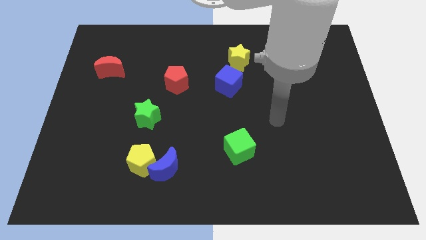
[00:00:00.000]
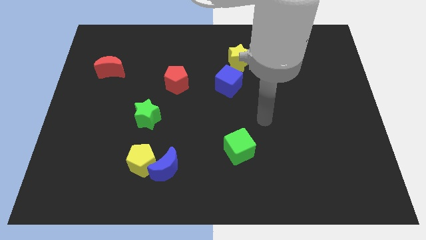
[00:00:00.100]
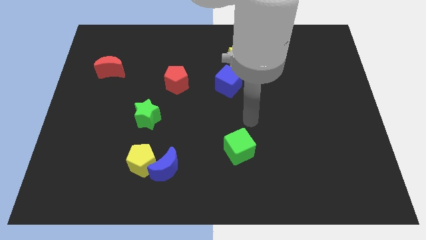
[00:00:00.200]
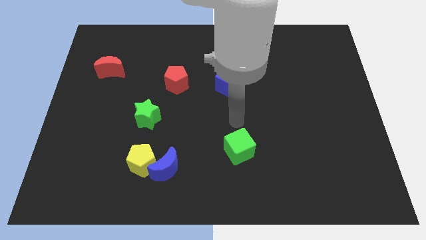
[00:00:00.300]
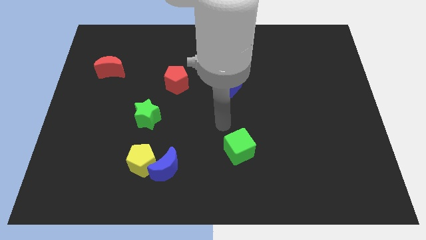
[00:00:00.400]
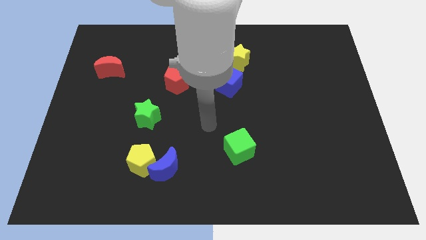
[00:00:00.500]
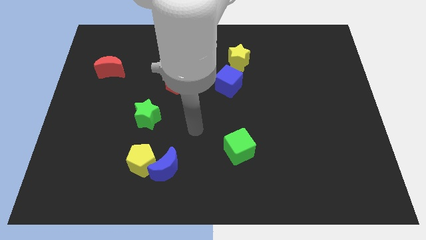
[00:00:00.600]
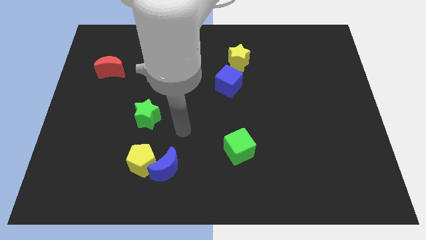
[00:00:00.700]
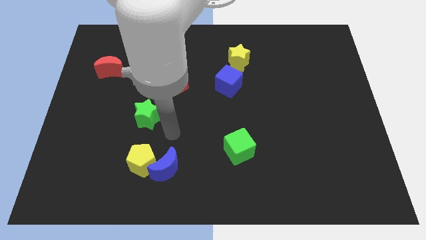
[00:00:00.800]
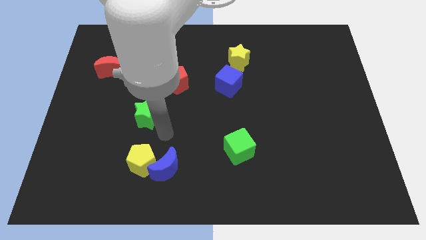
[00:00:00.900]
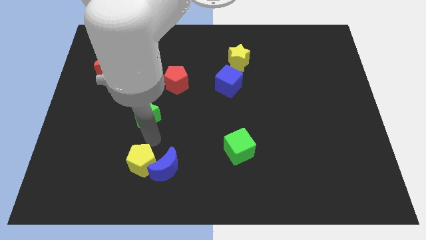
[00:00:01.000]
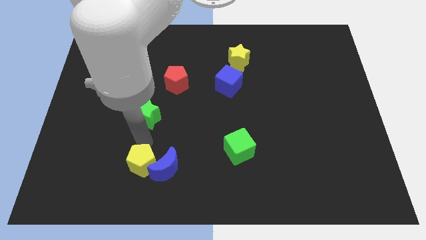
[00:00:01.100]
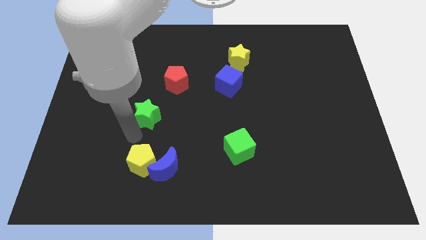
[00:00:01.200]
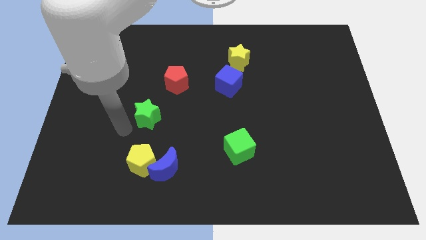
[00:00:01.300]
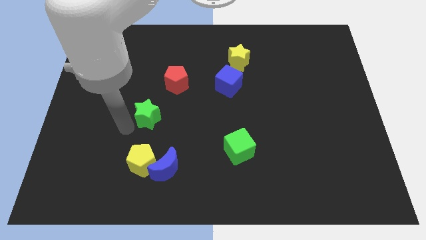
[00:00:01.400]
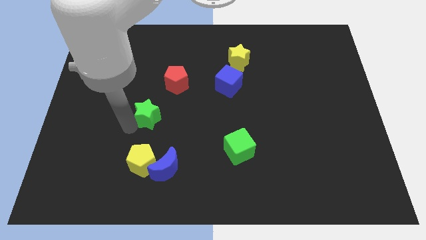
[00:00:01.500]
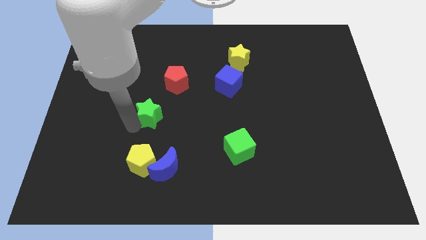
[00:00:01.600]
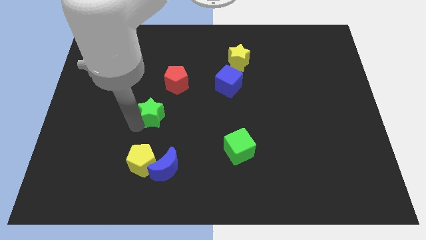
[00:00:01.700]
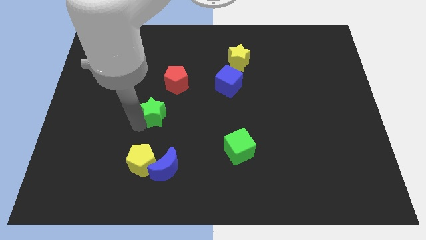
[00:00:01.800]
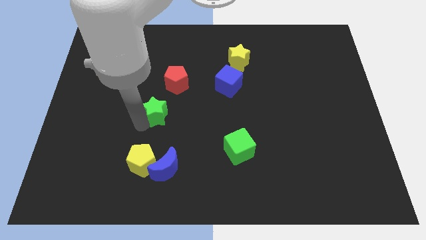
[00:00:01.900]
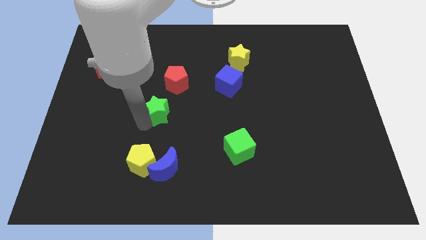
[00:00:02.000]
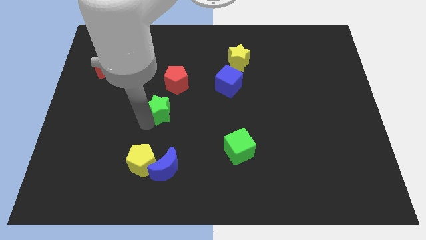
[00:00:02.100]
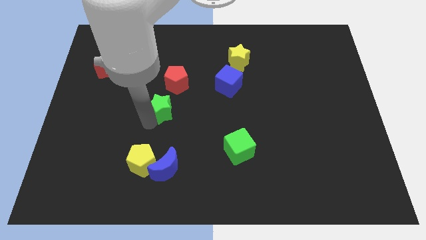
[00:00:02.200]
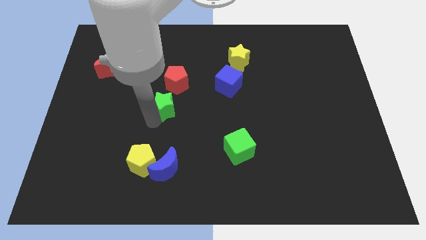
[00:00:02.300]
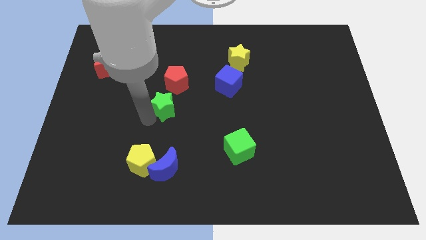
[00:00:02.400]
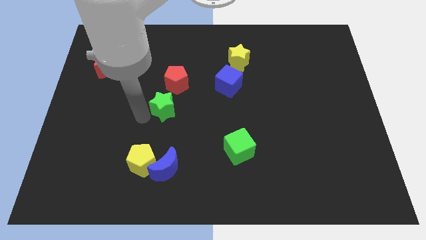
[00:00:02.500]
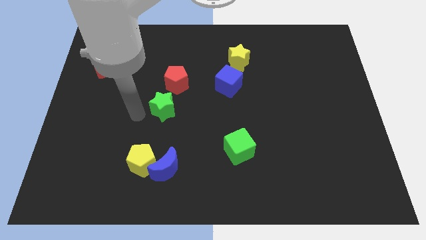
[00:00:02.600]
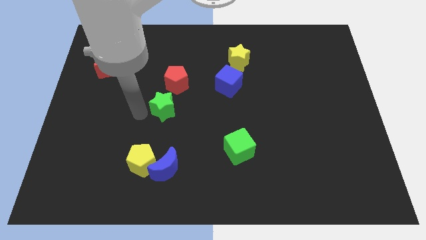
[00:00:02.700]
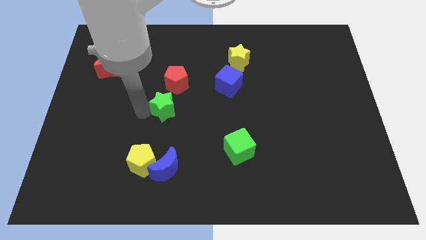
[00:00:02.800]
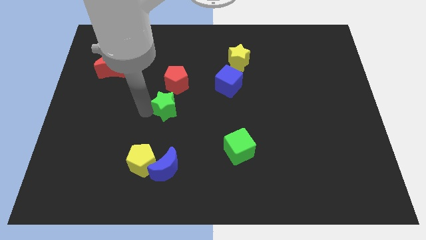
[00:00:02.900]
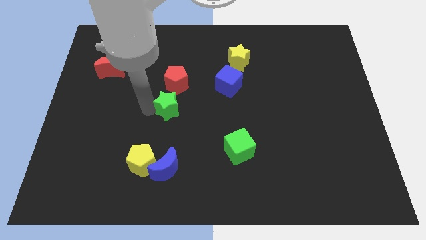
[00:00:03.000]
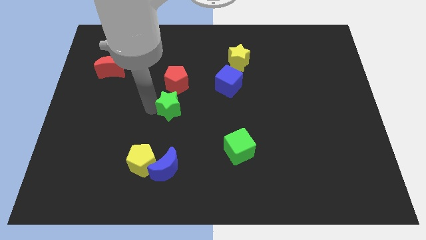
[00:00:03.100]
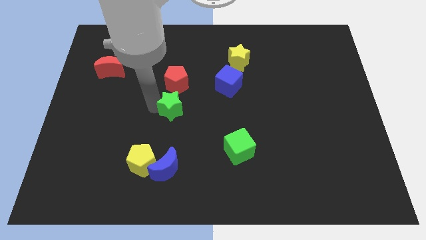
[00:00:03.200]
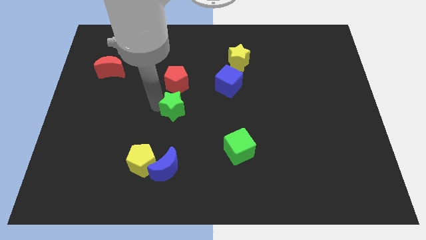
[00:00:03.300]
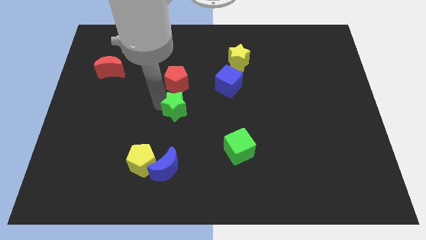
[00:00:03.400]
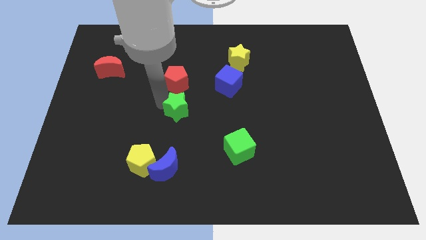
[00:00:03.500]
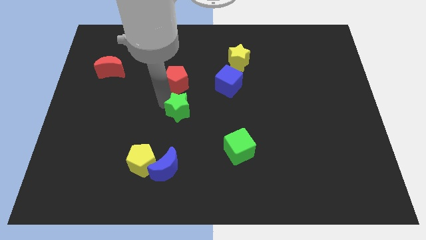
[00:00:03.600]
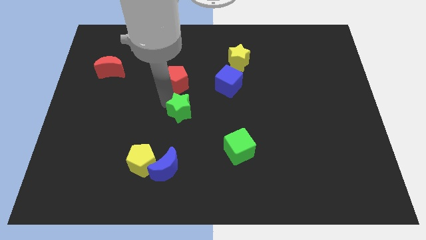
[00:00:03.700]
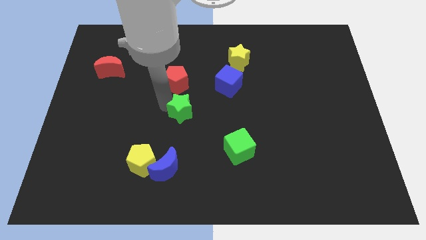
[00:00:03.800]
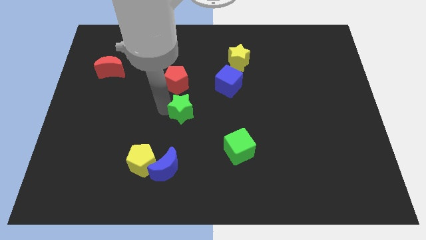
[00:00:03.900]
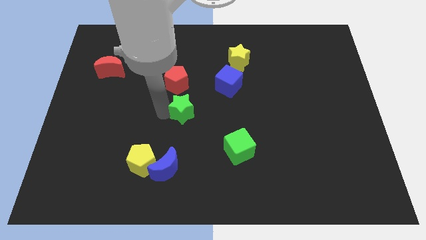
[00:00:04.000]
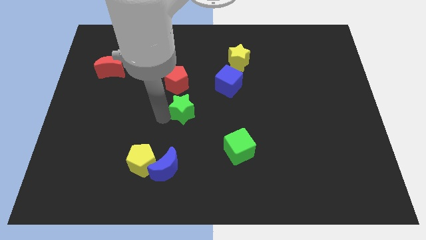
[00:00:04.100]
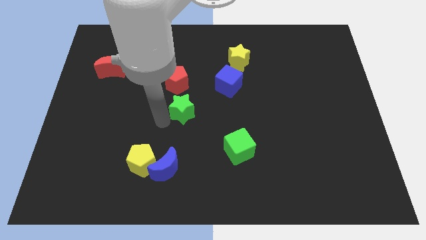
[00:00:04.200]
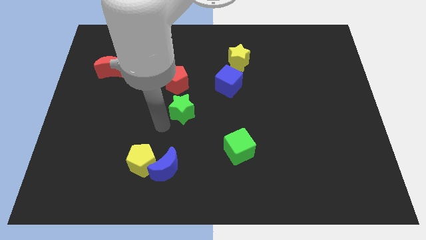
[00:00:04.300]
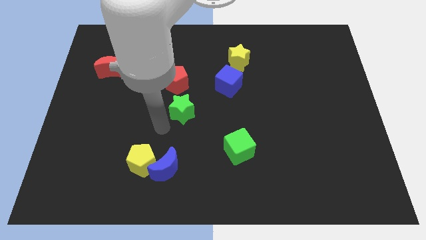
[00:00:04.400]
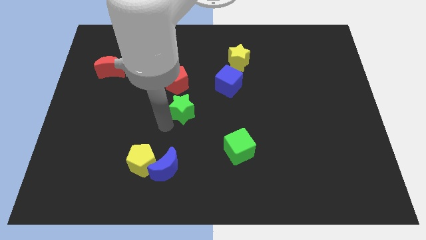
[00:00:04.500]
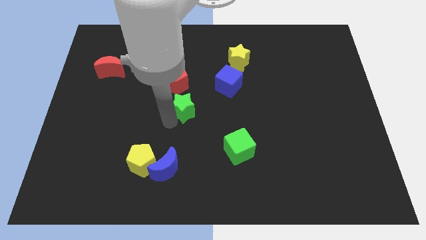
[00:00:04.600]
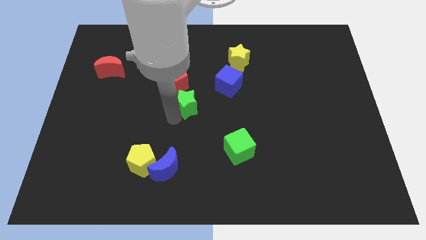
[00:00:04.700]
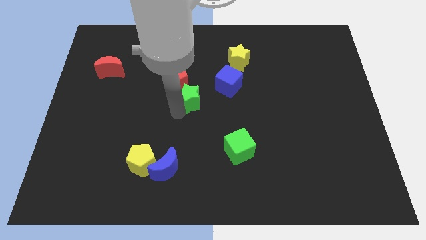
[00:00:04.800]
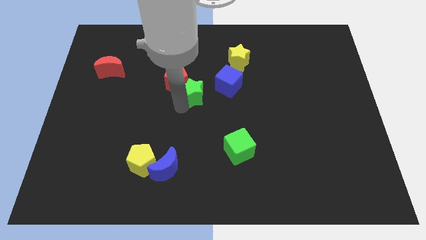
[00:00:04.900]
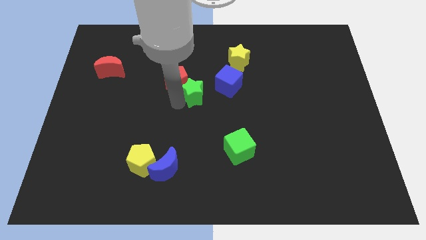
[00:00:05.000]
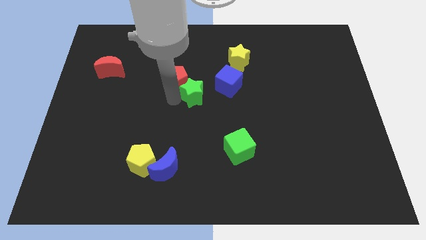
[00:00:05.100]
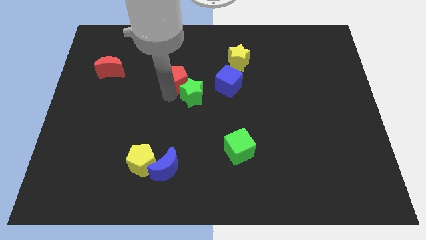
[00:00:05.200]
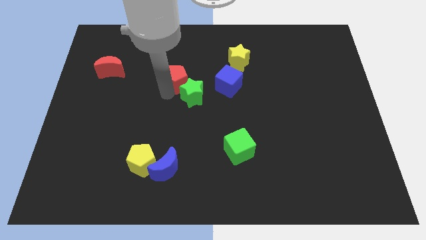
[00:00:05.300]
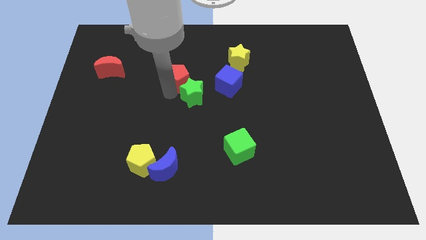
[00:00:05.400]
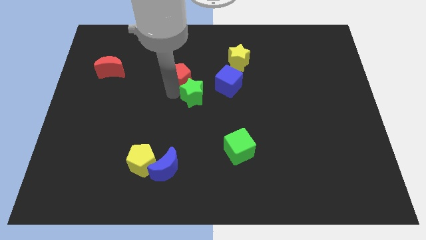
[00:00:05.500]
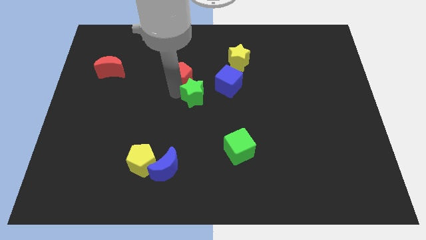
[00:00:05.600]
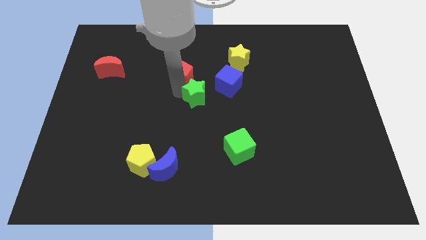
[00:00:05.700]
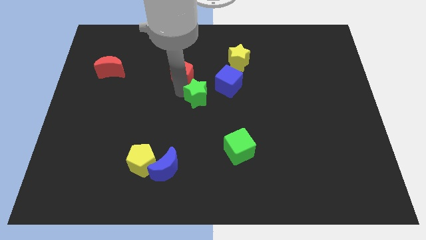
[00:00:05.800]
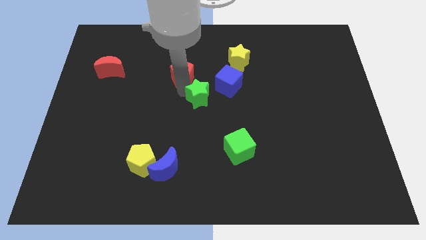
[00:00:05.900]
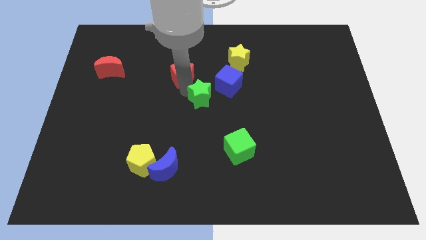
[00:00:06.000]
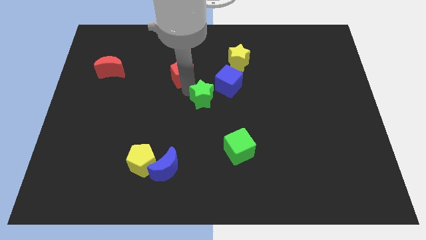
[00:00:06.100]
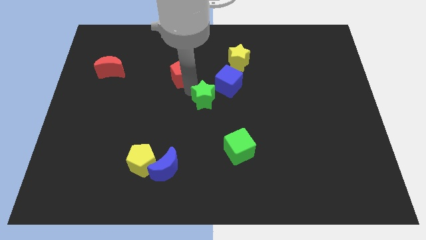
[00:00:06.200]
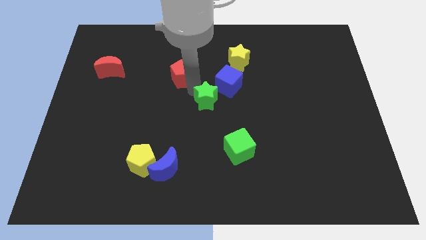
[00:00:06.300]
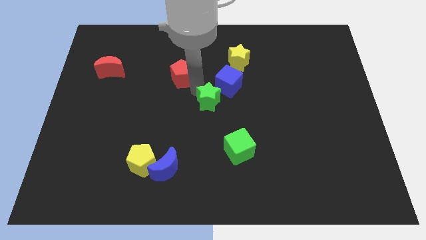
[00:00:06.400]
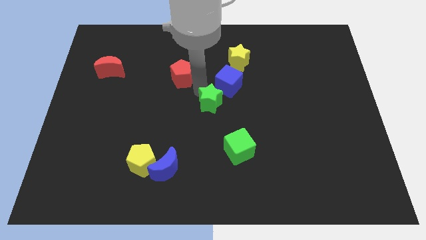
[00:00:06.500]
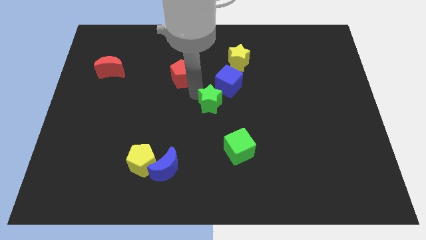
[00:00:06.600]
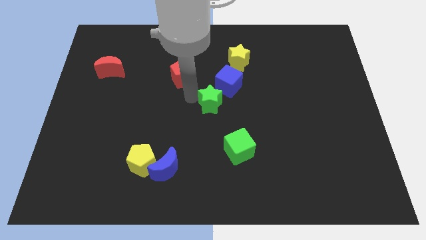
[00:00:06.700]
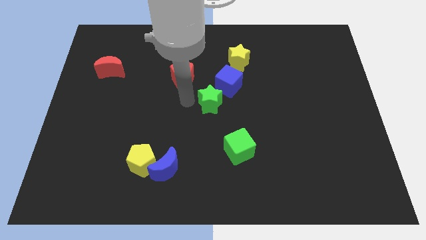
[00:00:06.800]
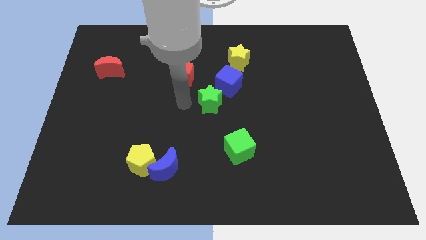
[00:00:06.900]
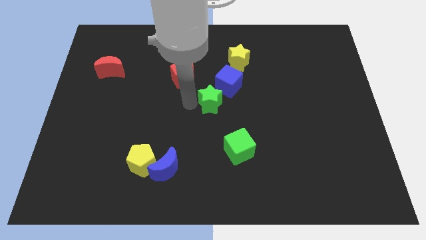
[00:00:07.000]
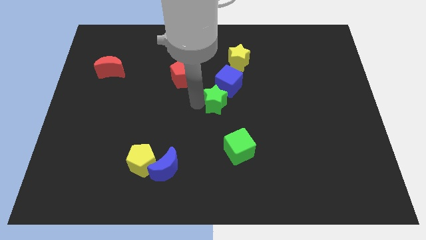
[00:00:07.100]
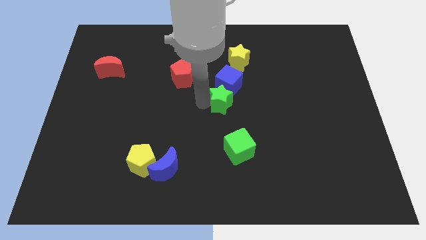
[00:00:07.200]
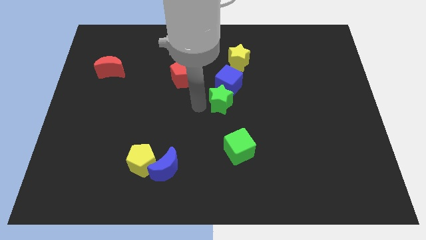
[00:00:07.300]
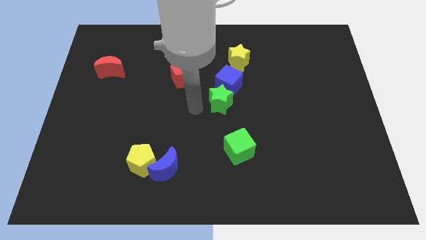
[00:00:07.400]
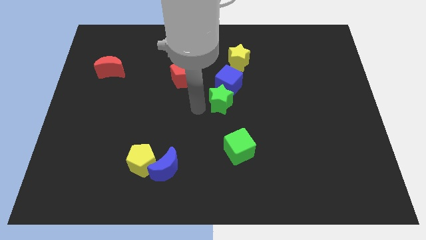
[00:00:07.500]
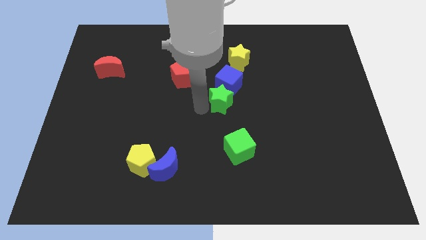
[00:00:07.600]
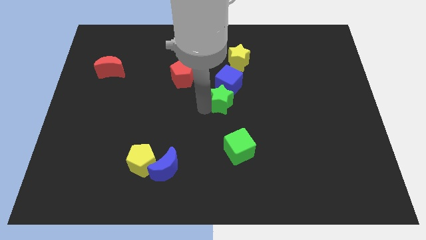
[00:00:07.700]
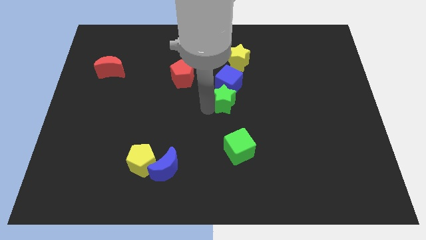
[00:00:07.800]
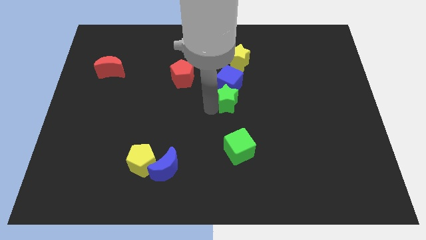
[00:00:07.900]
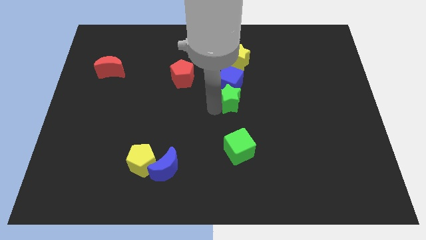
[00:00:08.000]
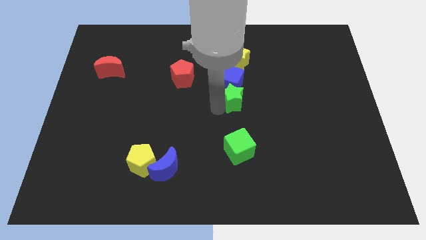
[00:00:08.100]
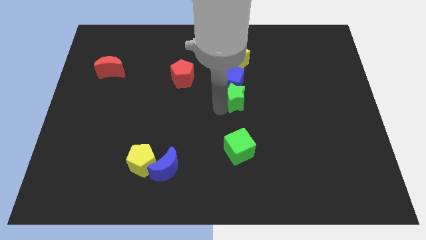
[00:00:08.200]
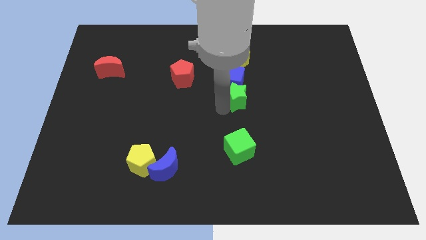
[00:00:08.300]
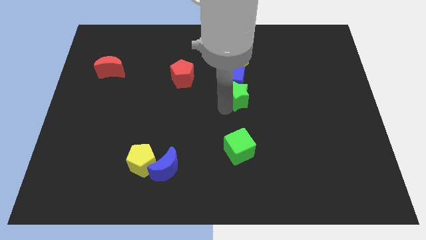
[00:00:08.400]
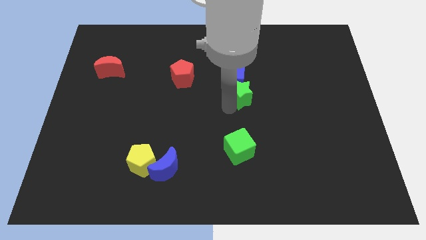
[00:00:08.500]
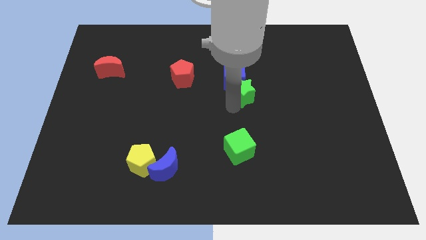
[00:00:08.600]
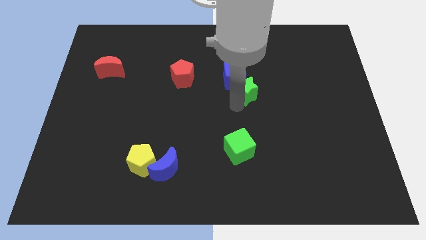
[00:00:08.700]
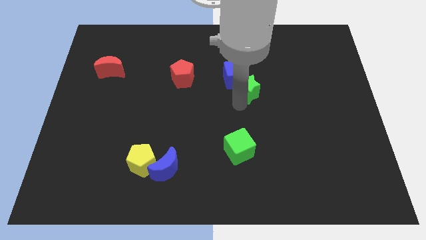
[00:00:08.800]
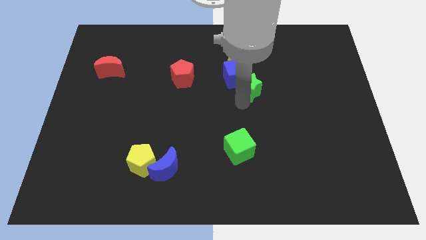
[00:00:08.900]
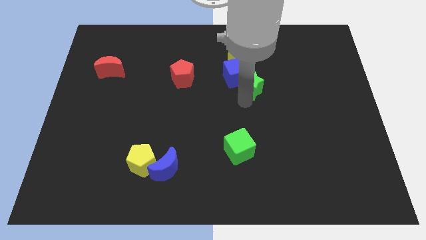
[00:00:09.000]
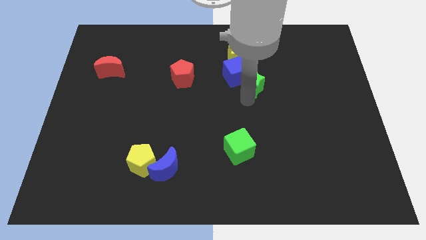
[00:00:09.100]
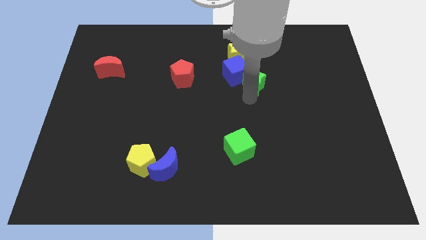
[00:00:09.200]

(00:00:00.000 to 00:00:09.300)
move the green star to the bottom right side of the yellow star
